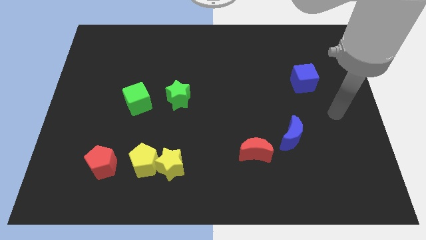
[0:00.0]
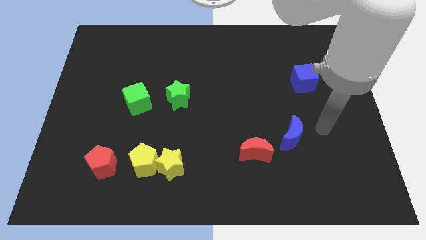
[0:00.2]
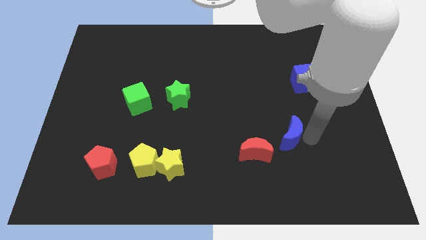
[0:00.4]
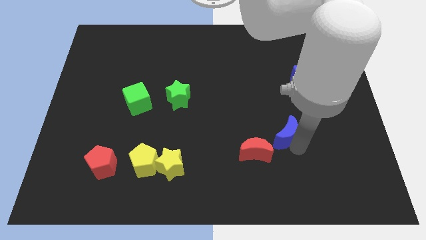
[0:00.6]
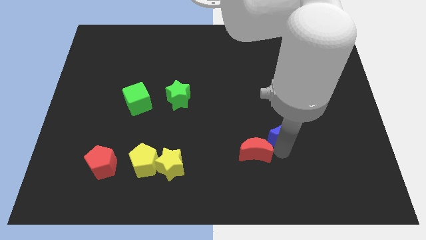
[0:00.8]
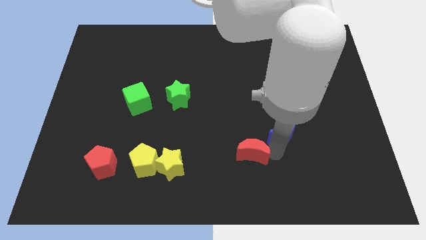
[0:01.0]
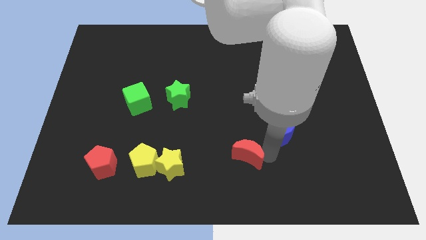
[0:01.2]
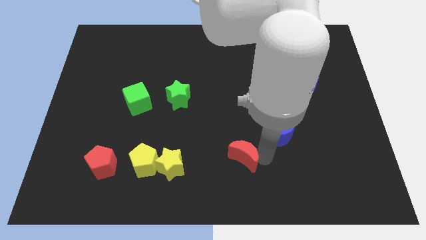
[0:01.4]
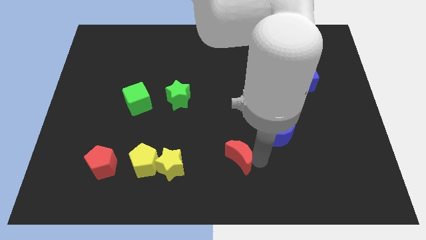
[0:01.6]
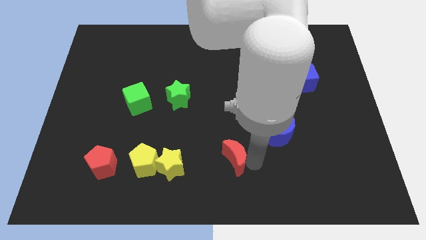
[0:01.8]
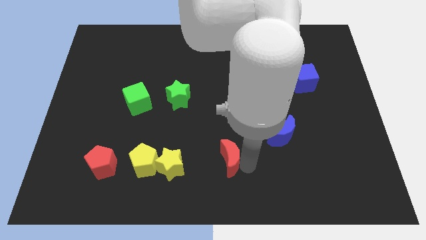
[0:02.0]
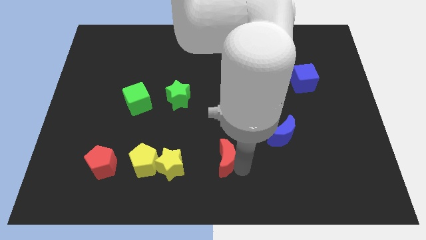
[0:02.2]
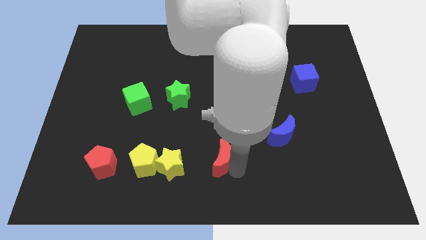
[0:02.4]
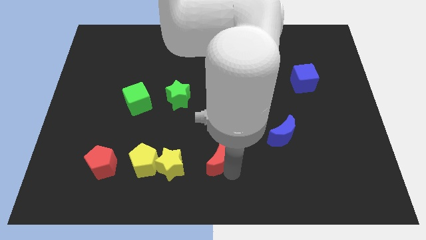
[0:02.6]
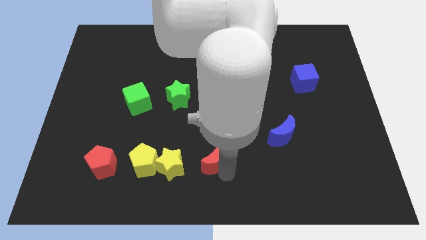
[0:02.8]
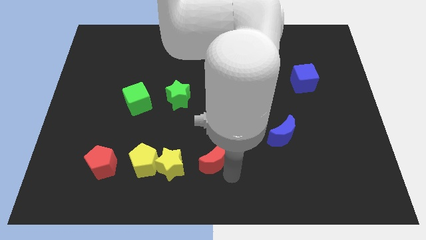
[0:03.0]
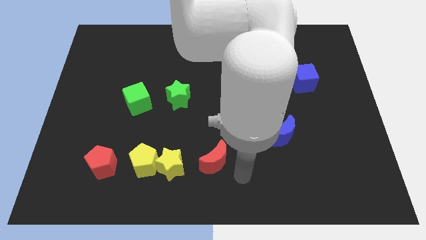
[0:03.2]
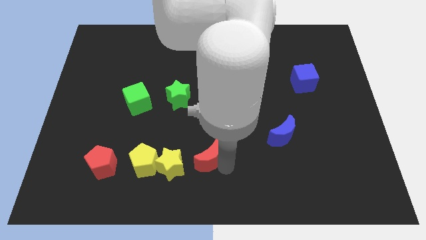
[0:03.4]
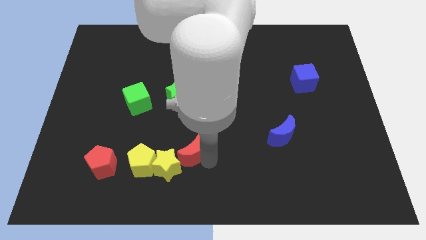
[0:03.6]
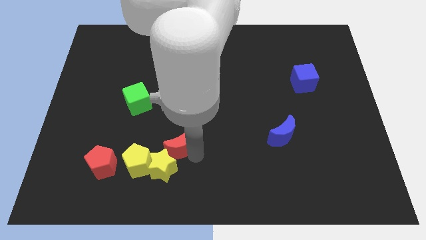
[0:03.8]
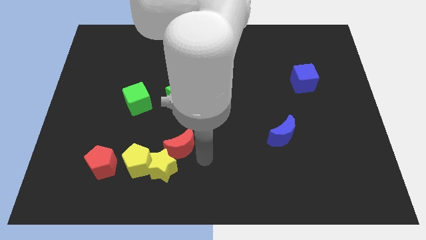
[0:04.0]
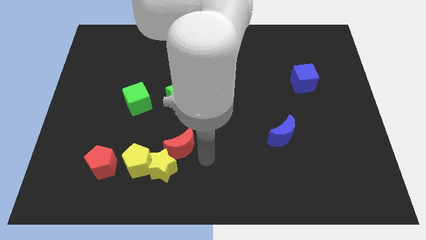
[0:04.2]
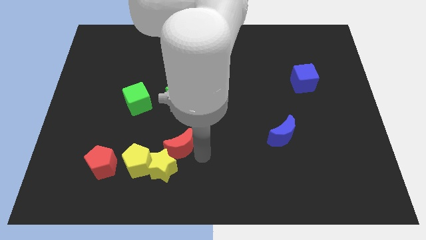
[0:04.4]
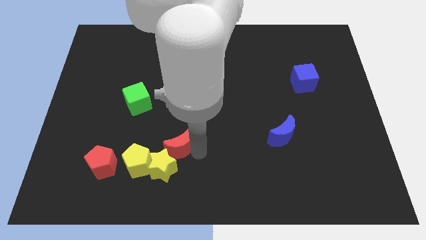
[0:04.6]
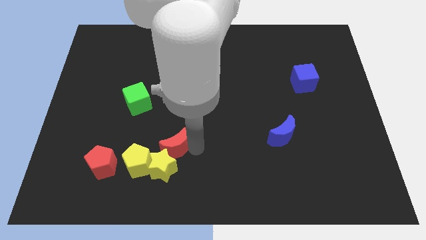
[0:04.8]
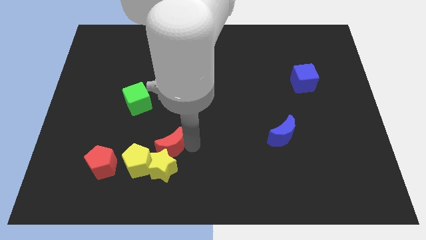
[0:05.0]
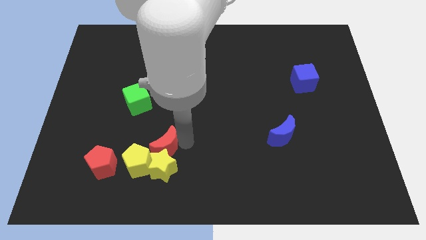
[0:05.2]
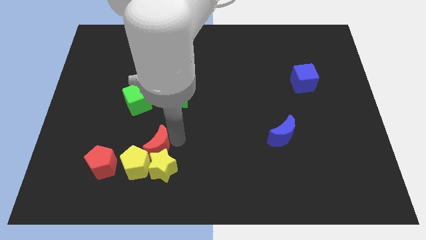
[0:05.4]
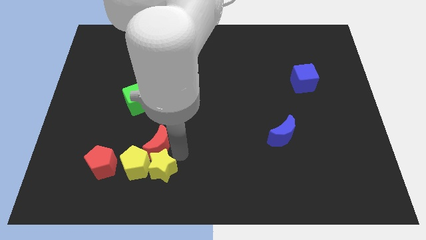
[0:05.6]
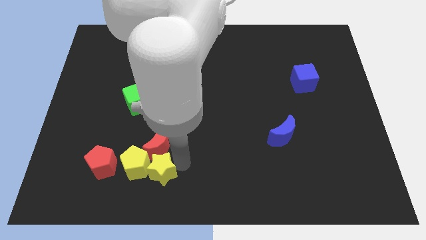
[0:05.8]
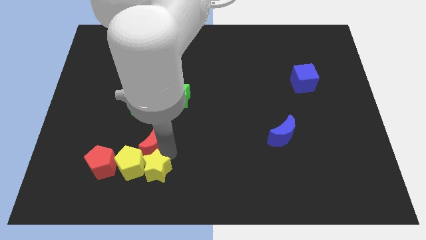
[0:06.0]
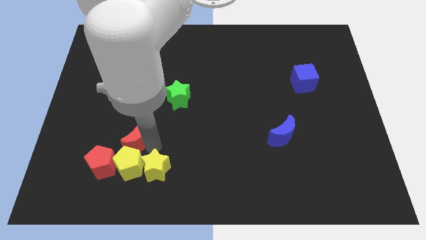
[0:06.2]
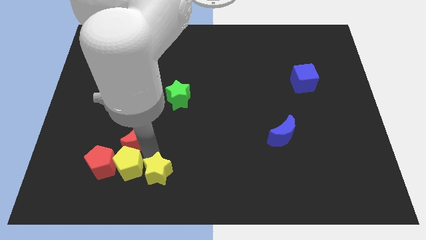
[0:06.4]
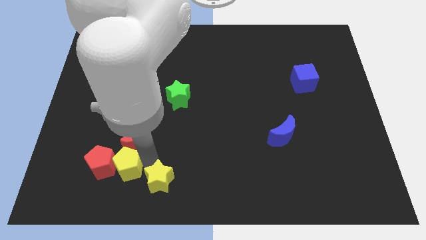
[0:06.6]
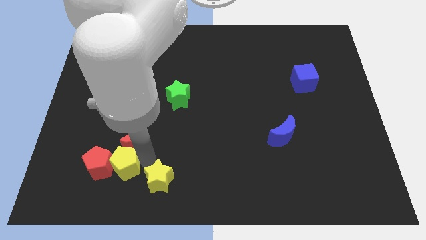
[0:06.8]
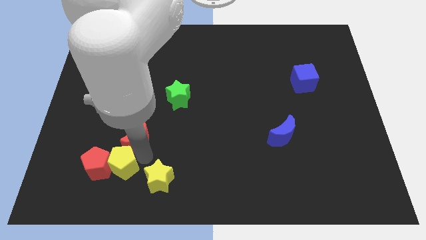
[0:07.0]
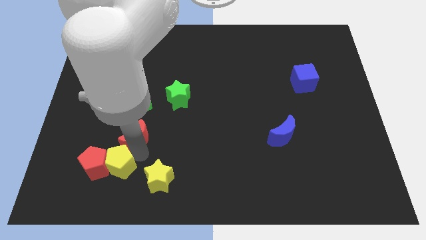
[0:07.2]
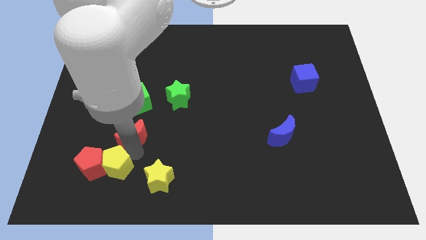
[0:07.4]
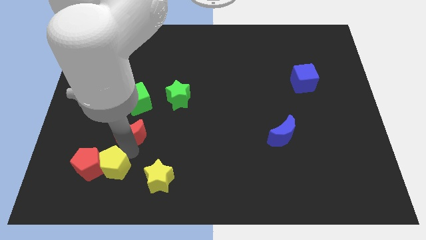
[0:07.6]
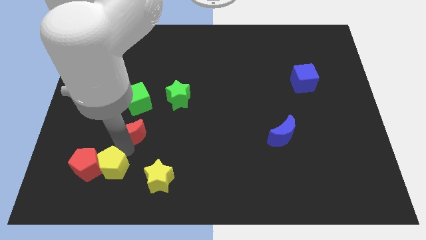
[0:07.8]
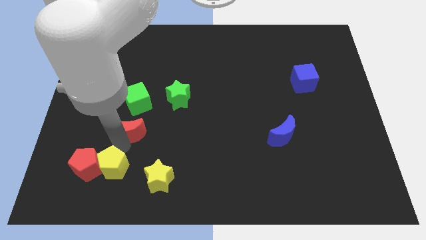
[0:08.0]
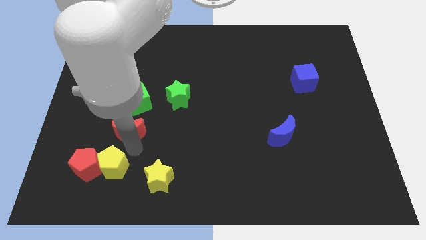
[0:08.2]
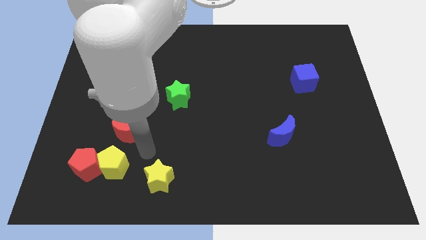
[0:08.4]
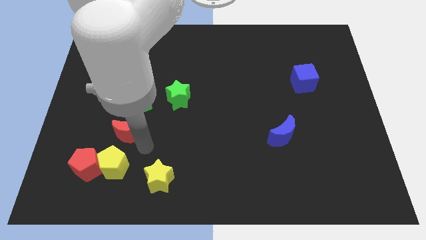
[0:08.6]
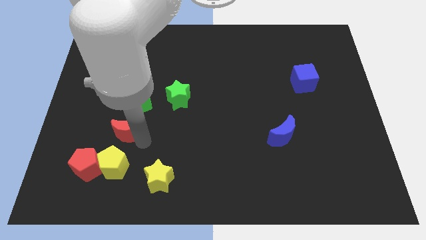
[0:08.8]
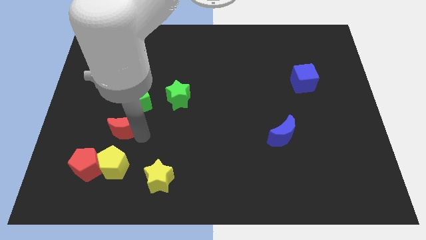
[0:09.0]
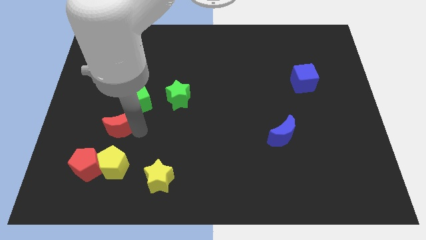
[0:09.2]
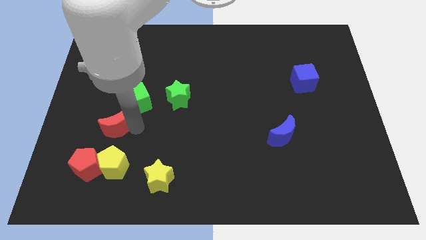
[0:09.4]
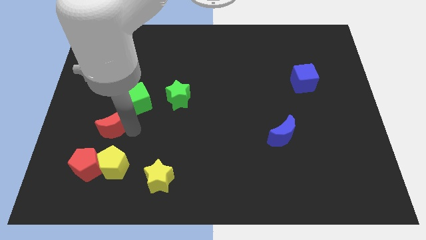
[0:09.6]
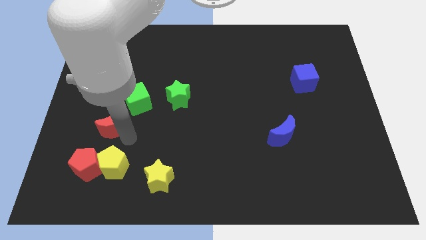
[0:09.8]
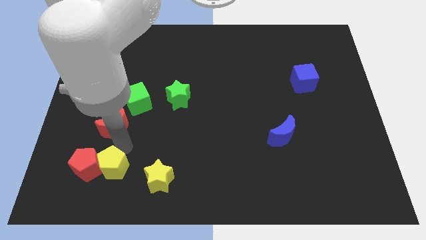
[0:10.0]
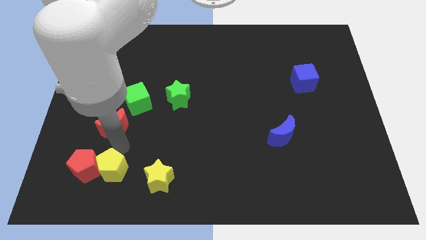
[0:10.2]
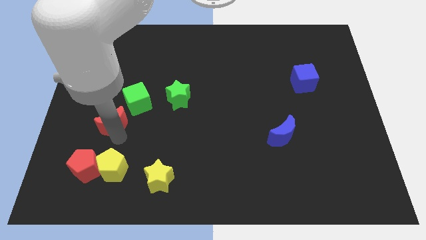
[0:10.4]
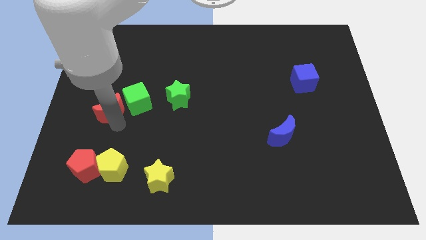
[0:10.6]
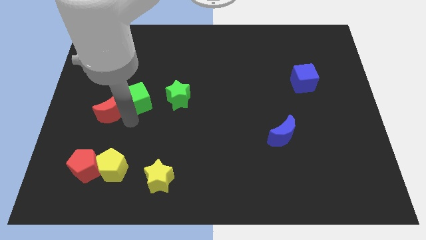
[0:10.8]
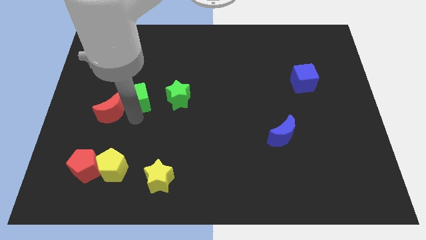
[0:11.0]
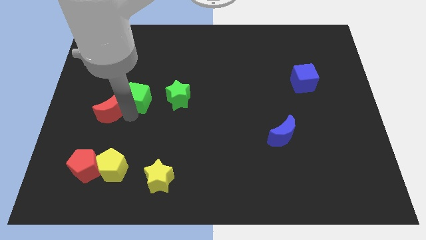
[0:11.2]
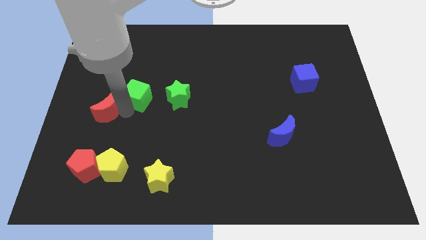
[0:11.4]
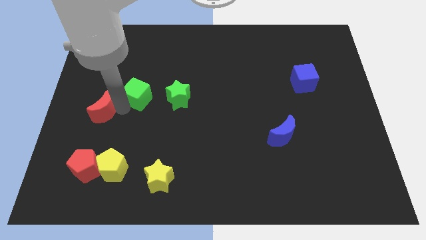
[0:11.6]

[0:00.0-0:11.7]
push the red moon to the left side of the board
